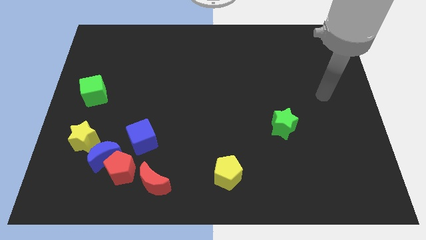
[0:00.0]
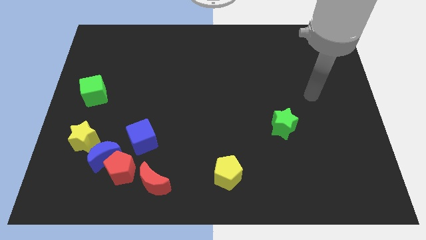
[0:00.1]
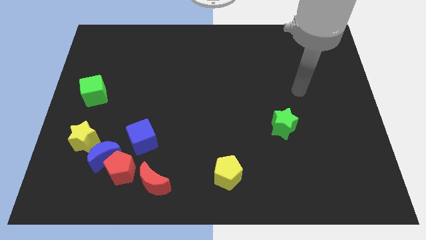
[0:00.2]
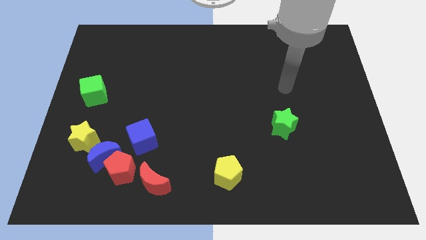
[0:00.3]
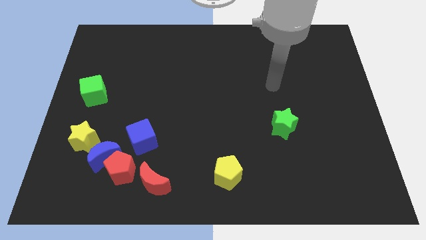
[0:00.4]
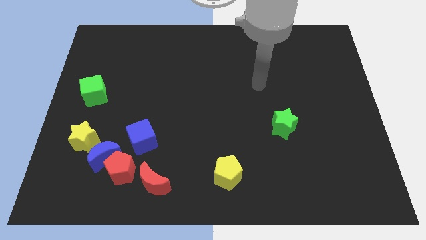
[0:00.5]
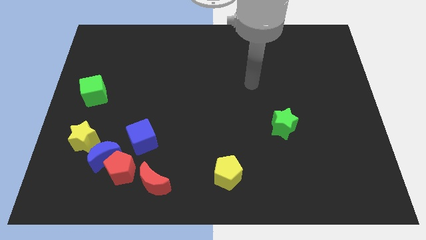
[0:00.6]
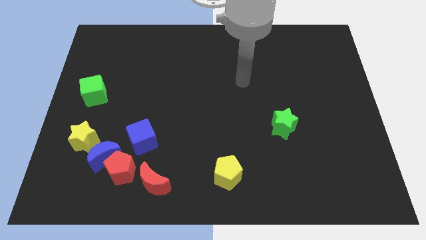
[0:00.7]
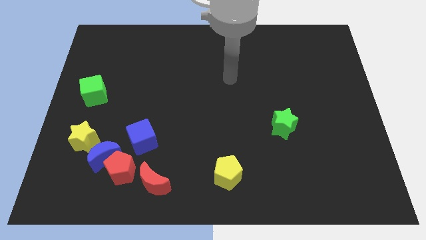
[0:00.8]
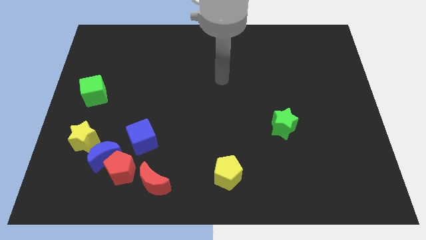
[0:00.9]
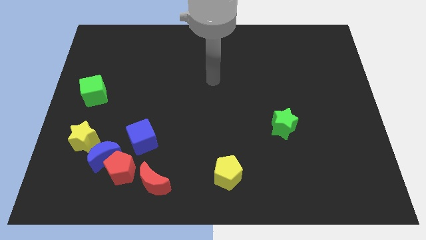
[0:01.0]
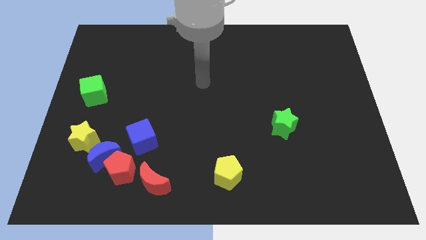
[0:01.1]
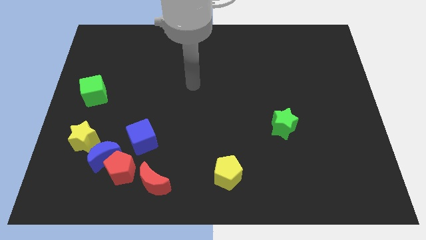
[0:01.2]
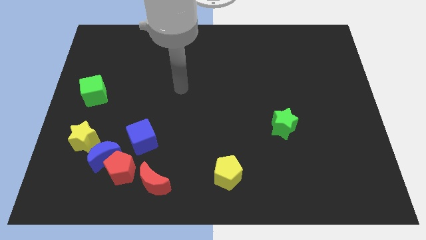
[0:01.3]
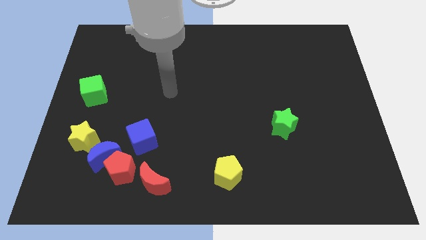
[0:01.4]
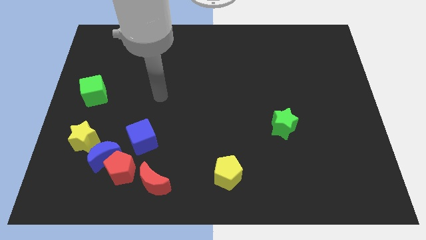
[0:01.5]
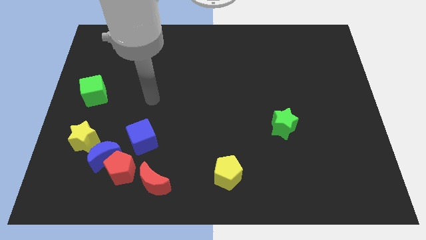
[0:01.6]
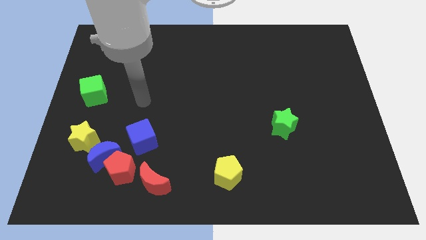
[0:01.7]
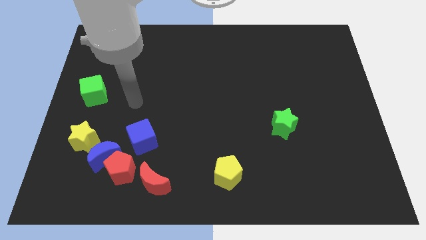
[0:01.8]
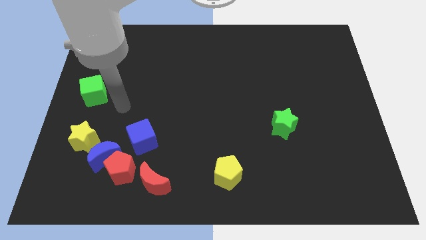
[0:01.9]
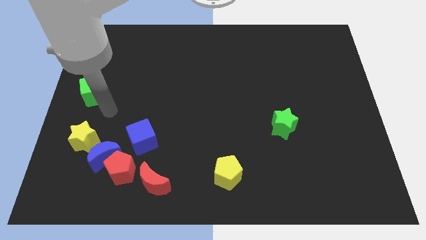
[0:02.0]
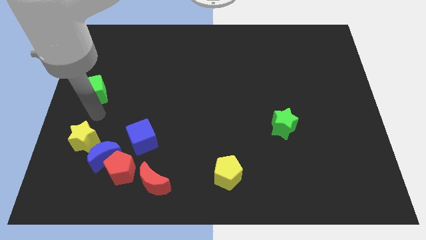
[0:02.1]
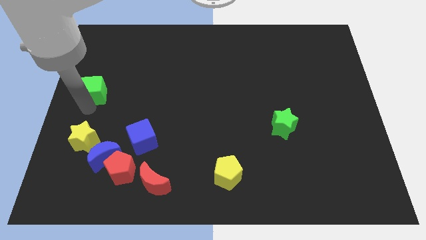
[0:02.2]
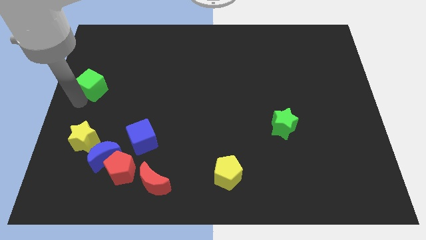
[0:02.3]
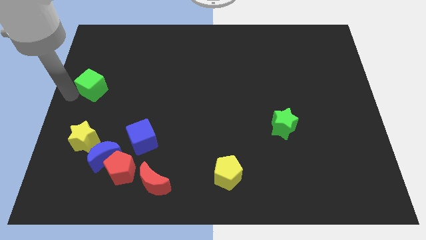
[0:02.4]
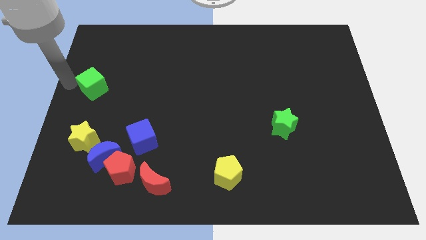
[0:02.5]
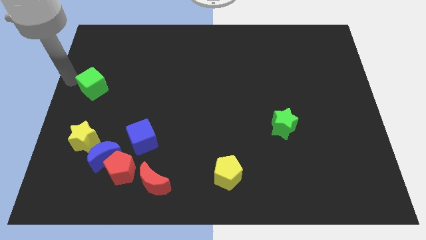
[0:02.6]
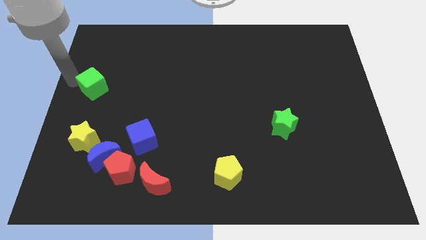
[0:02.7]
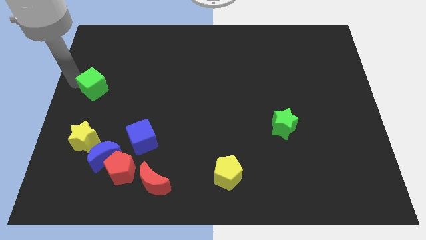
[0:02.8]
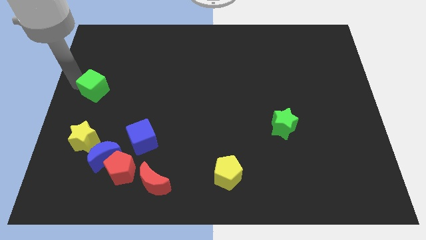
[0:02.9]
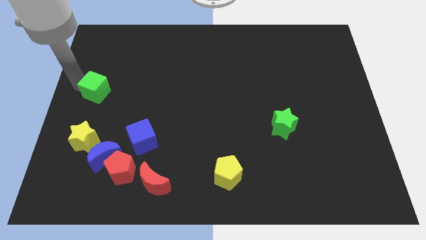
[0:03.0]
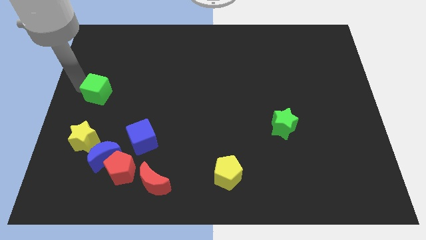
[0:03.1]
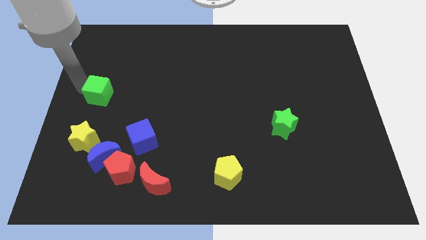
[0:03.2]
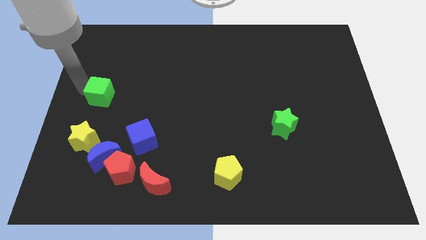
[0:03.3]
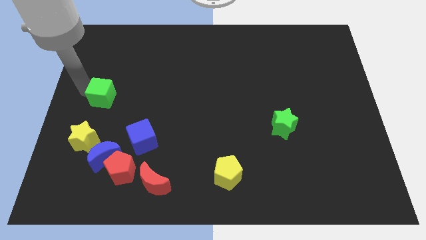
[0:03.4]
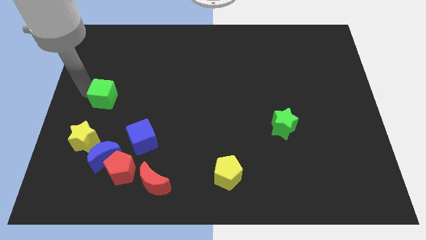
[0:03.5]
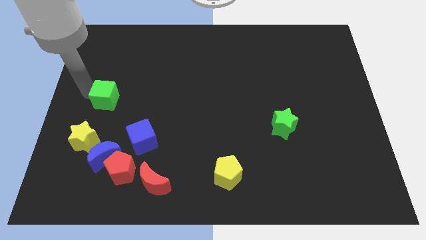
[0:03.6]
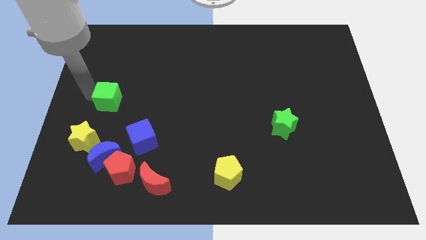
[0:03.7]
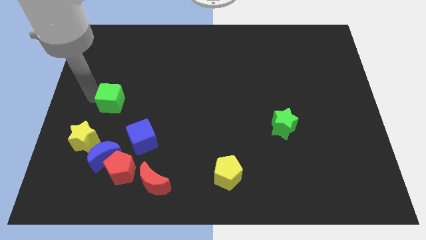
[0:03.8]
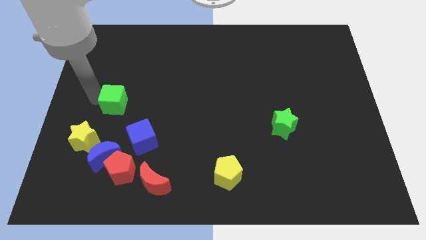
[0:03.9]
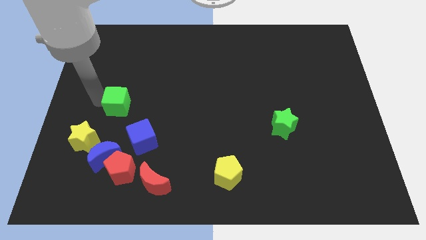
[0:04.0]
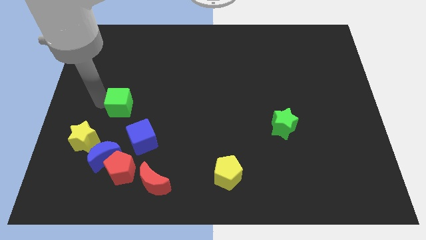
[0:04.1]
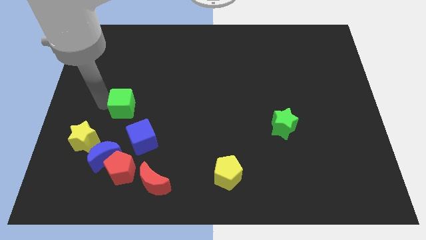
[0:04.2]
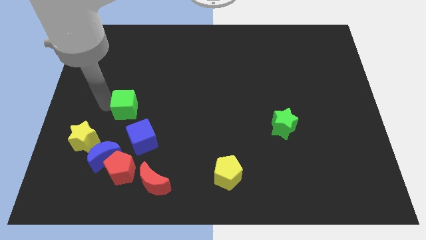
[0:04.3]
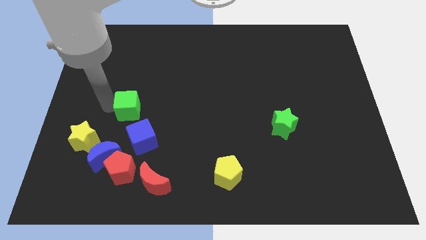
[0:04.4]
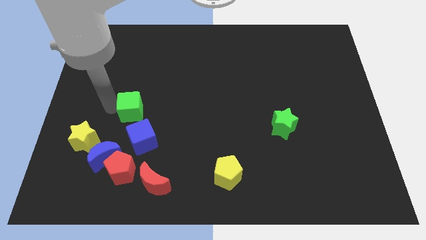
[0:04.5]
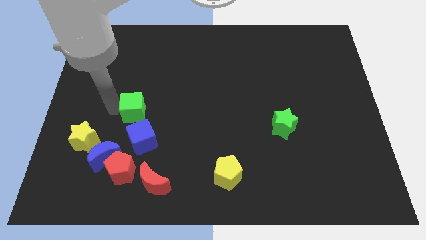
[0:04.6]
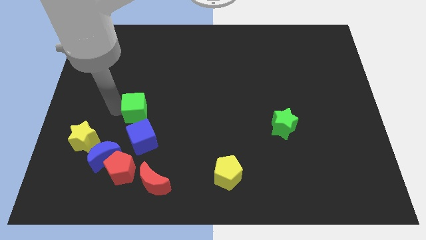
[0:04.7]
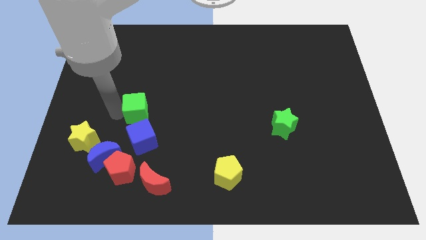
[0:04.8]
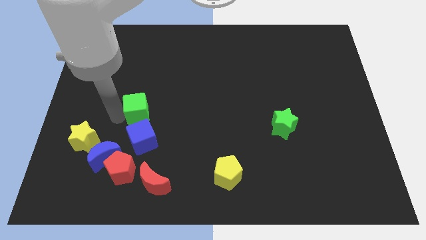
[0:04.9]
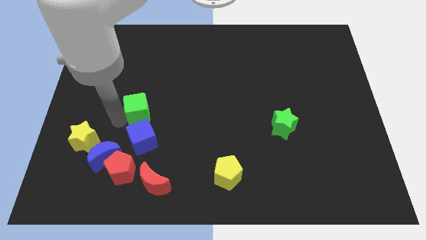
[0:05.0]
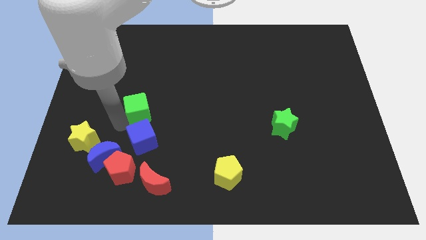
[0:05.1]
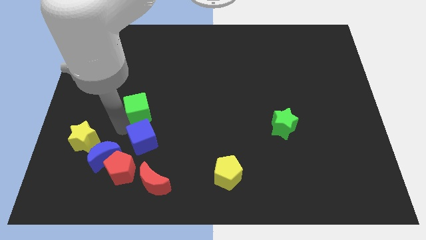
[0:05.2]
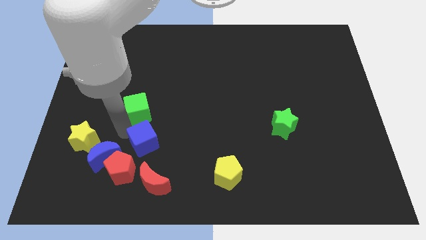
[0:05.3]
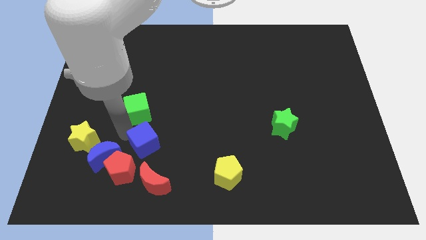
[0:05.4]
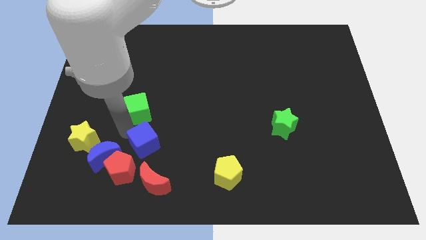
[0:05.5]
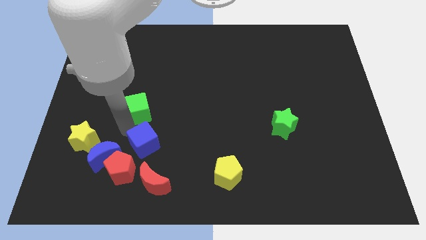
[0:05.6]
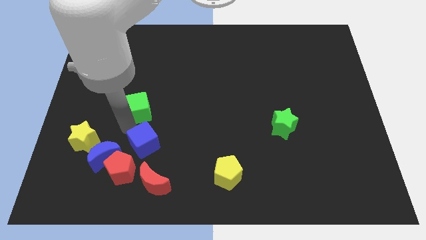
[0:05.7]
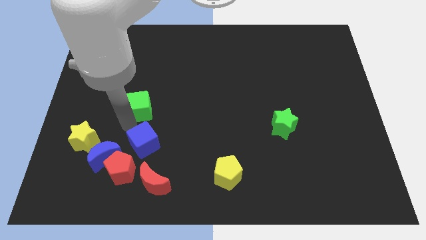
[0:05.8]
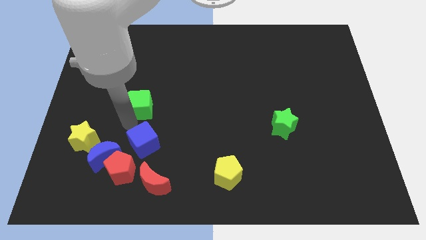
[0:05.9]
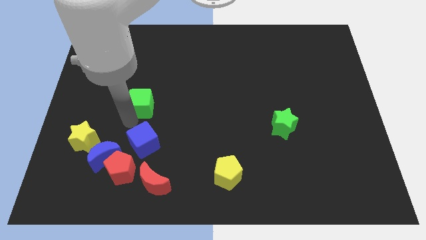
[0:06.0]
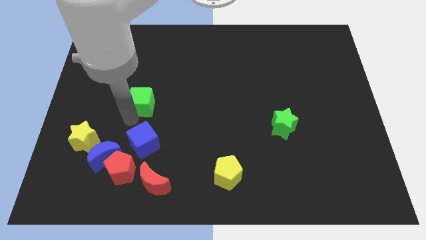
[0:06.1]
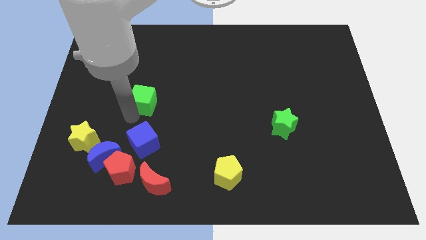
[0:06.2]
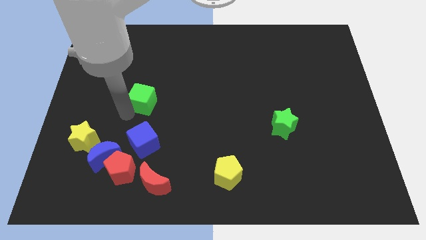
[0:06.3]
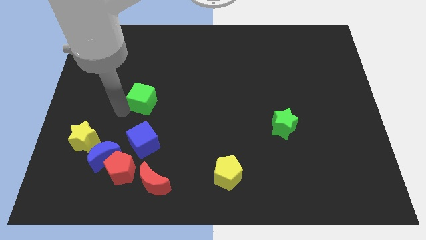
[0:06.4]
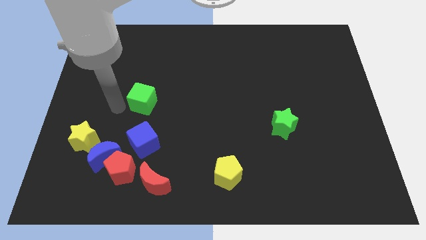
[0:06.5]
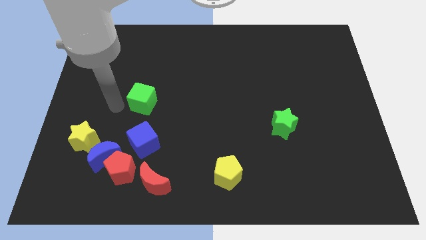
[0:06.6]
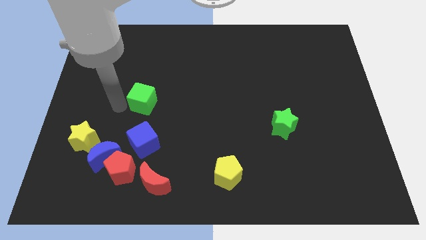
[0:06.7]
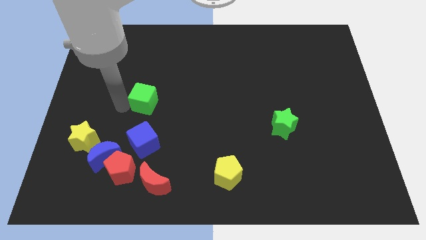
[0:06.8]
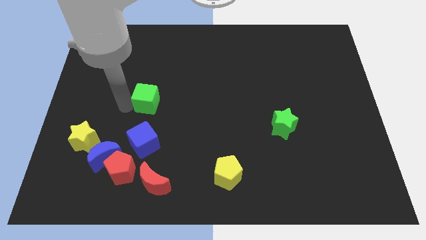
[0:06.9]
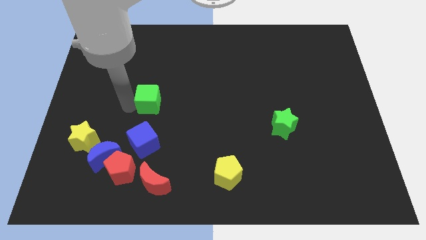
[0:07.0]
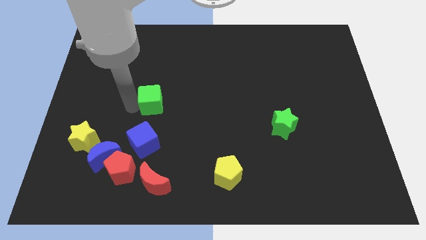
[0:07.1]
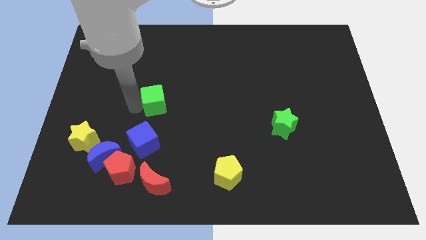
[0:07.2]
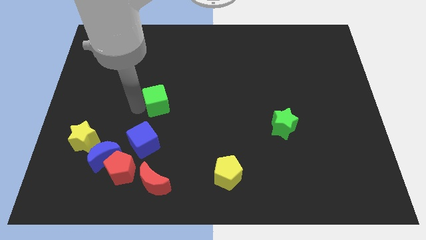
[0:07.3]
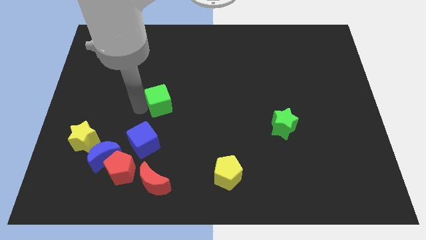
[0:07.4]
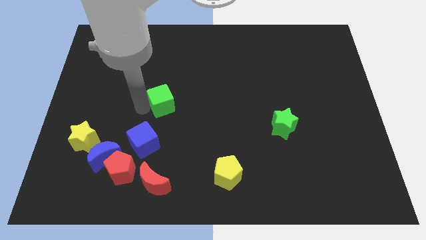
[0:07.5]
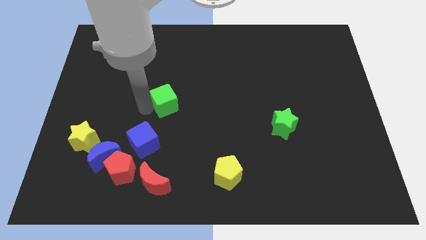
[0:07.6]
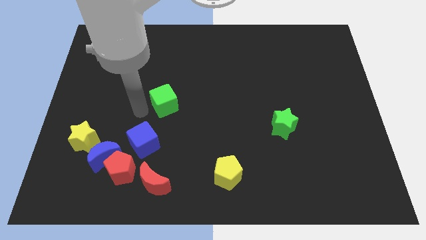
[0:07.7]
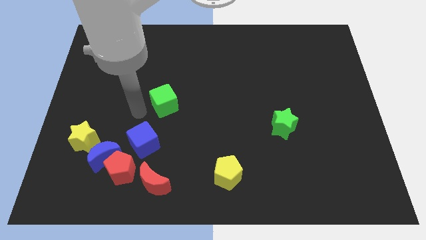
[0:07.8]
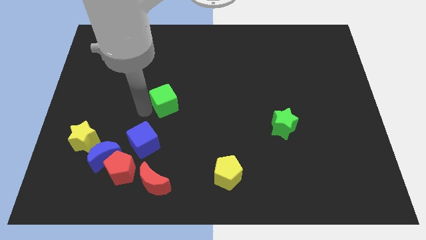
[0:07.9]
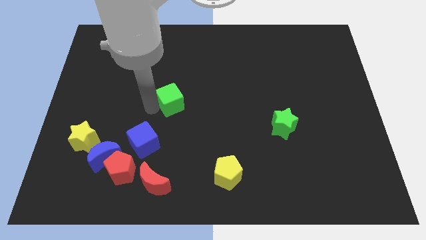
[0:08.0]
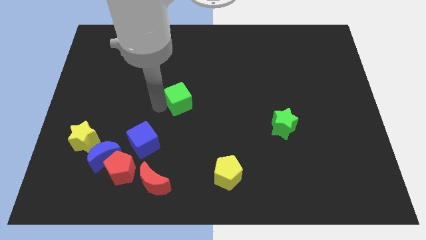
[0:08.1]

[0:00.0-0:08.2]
slide the green cube right
